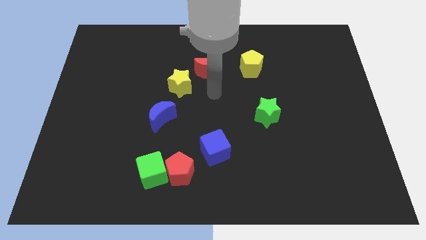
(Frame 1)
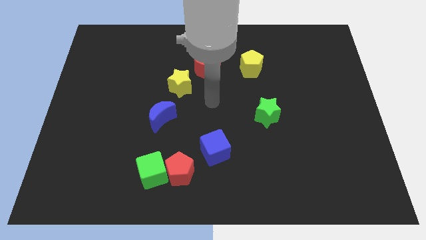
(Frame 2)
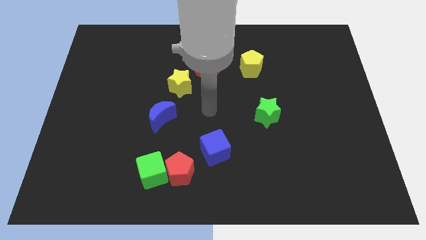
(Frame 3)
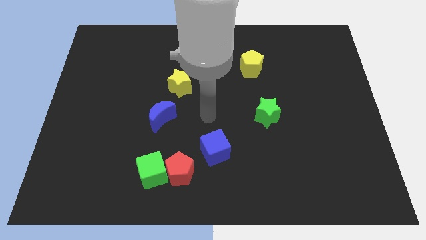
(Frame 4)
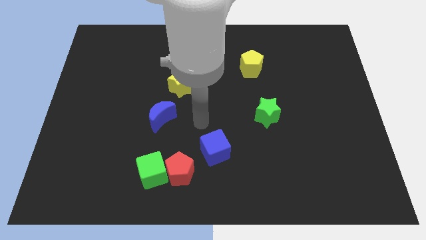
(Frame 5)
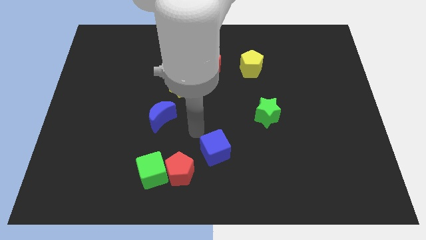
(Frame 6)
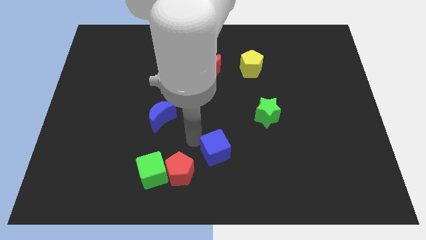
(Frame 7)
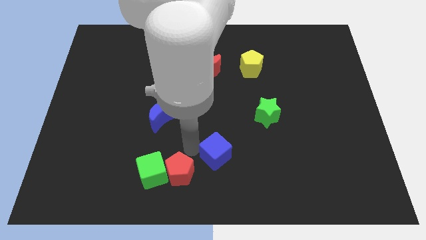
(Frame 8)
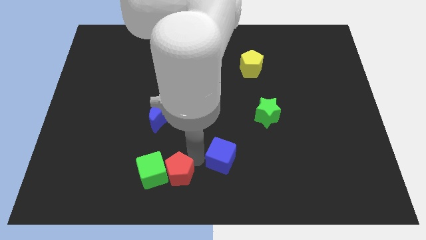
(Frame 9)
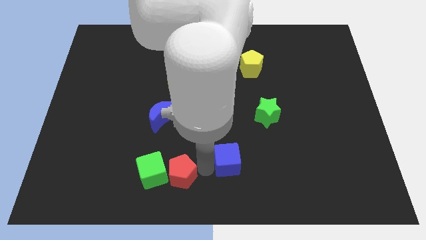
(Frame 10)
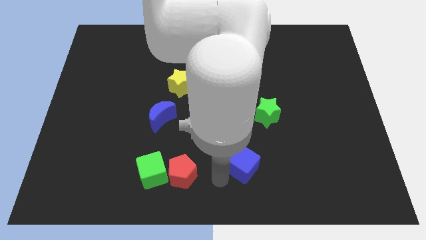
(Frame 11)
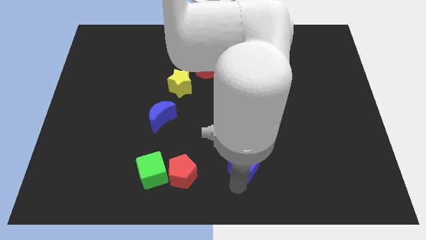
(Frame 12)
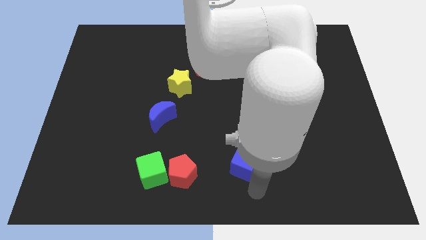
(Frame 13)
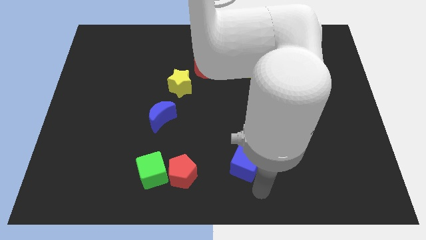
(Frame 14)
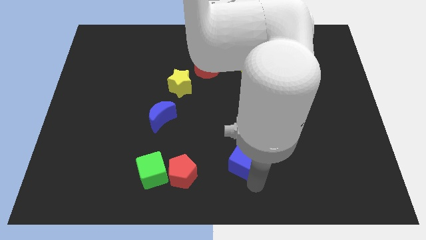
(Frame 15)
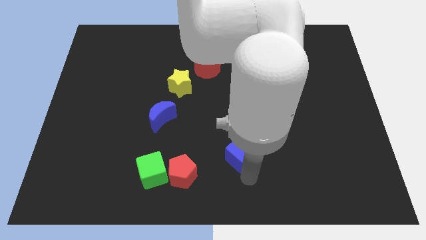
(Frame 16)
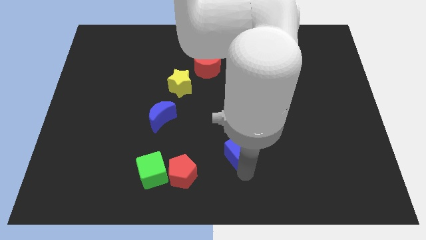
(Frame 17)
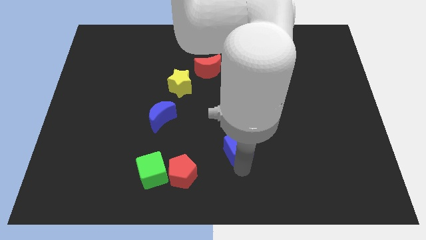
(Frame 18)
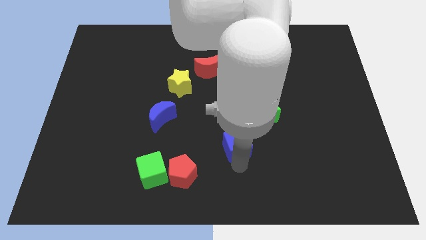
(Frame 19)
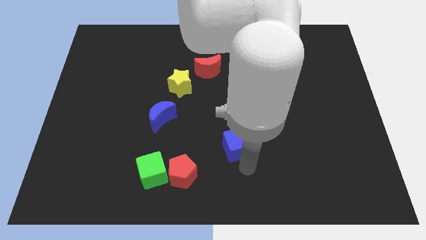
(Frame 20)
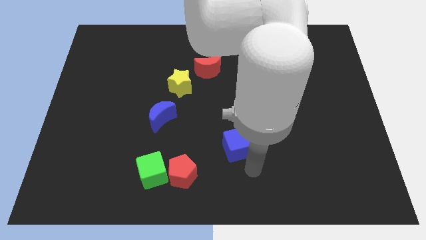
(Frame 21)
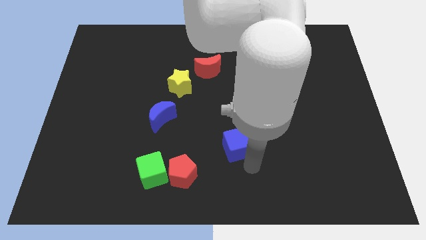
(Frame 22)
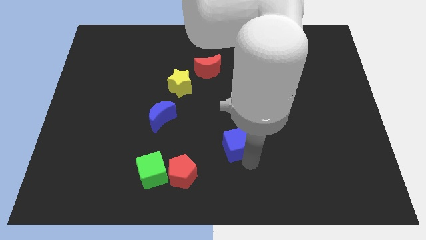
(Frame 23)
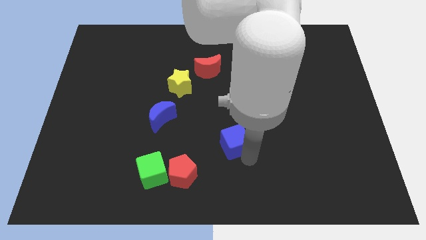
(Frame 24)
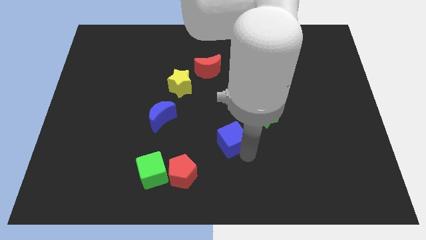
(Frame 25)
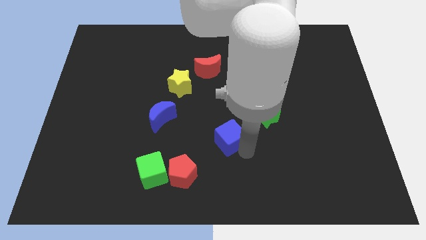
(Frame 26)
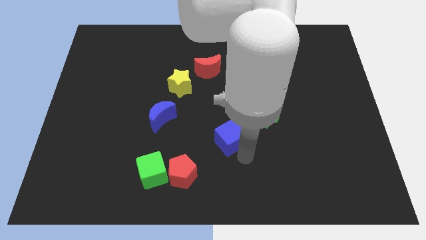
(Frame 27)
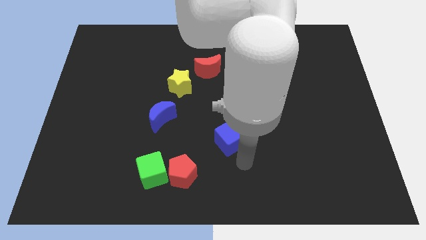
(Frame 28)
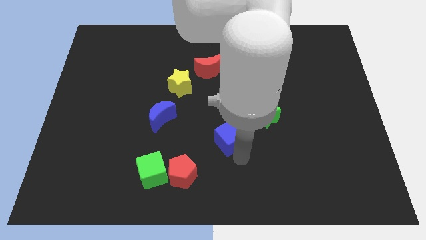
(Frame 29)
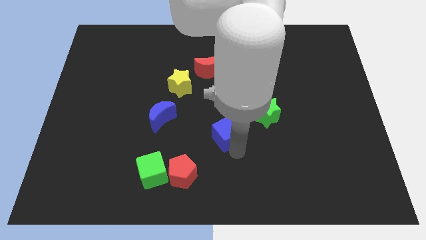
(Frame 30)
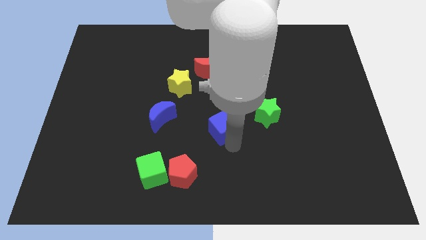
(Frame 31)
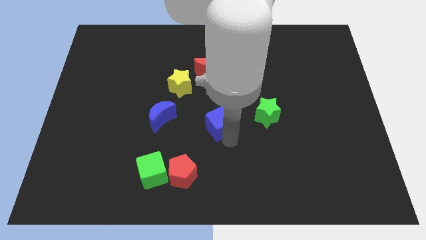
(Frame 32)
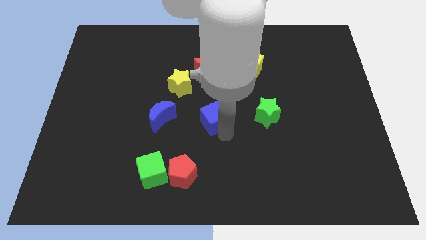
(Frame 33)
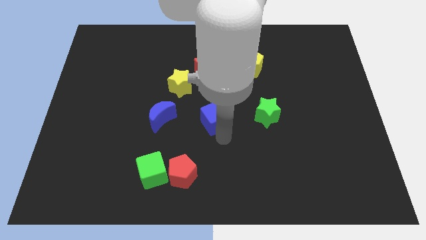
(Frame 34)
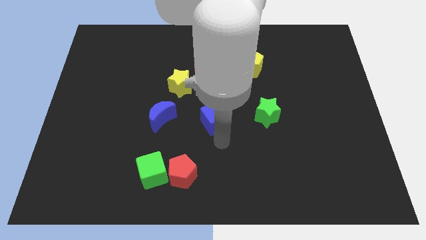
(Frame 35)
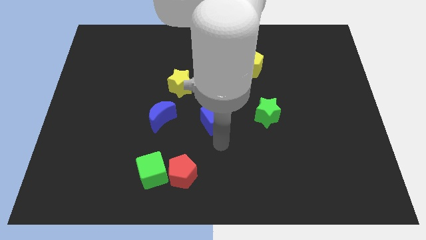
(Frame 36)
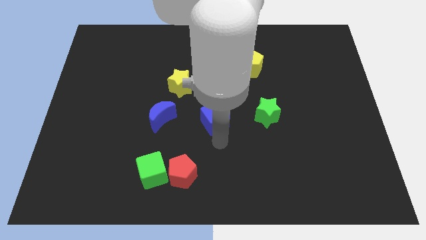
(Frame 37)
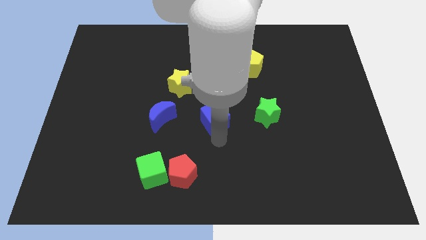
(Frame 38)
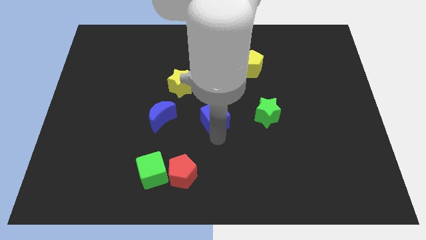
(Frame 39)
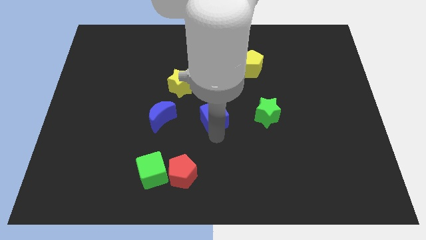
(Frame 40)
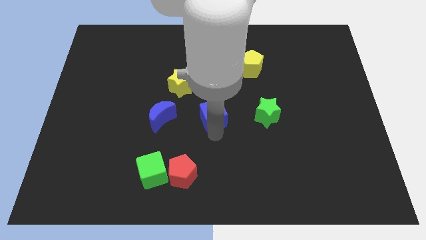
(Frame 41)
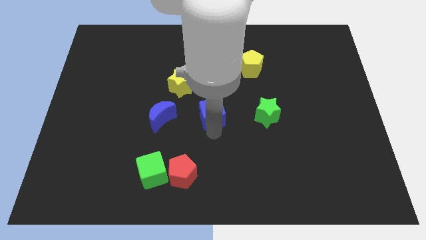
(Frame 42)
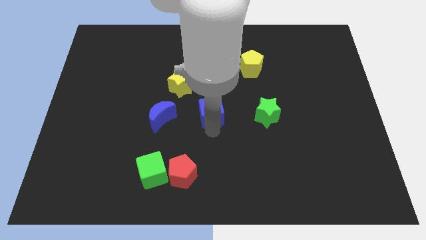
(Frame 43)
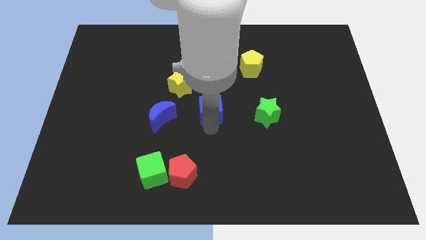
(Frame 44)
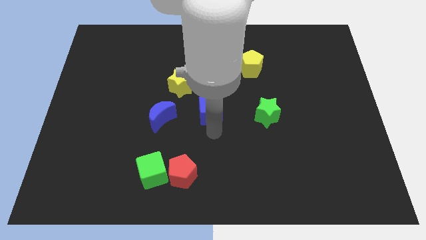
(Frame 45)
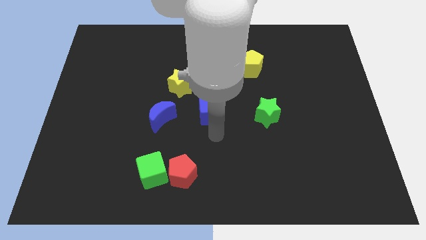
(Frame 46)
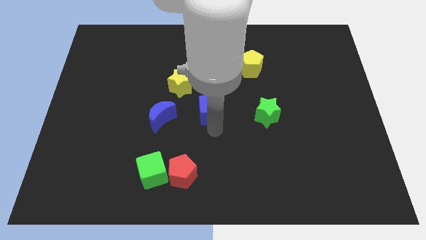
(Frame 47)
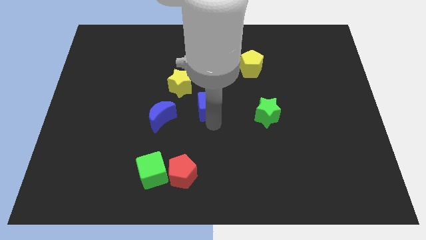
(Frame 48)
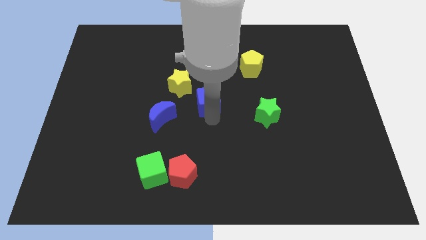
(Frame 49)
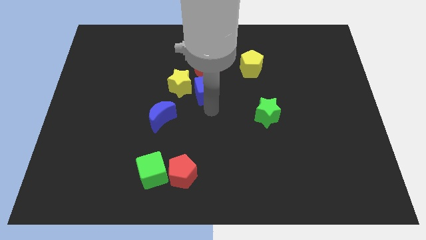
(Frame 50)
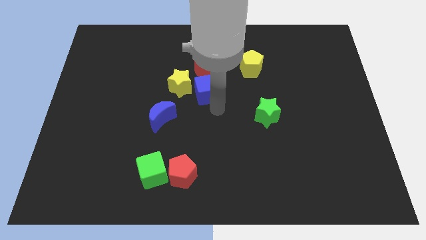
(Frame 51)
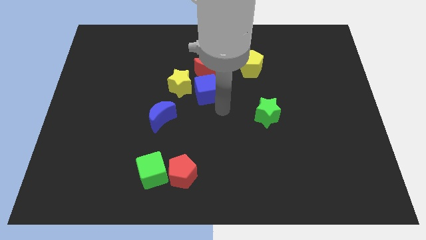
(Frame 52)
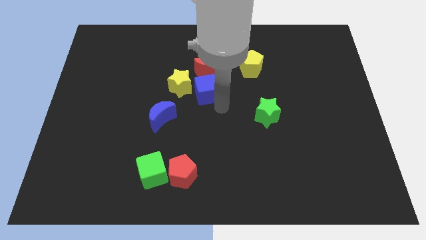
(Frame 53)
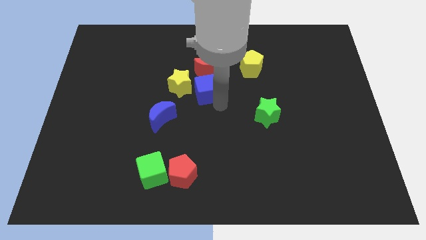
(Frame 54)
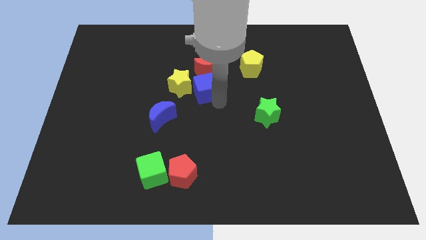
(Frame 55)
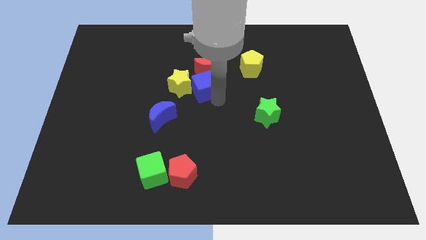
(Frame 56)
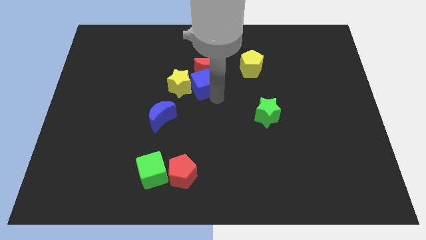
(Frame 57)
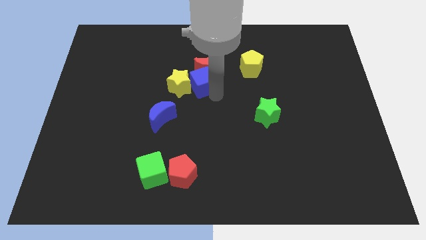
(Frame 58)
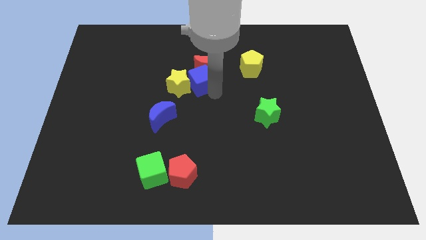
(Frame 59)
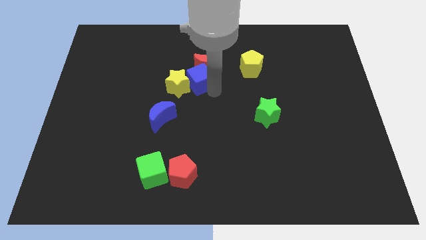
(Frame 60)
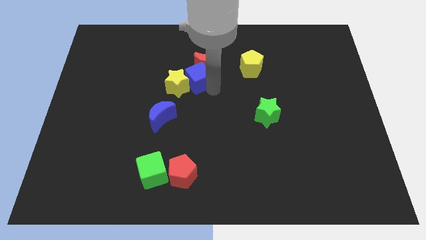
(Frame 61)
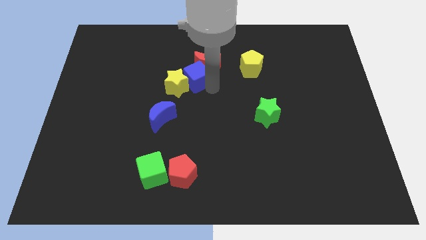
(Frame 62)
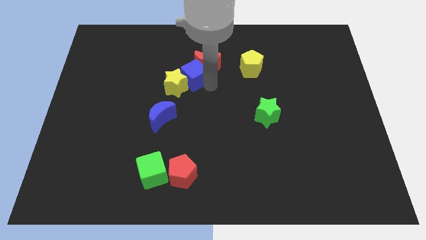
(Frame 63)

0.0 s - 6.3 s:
move the blue cube left of the red moon

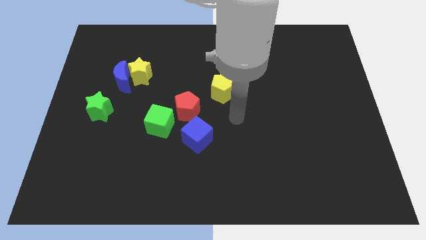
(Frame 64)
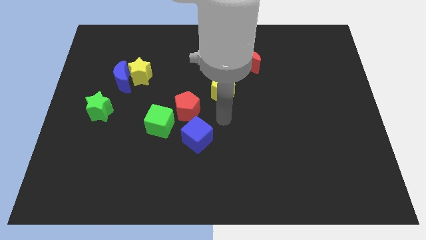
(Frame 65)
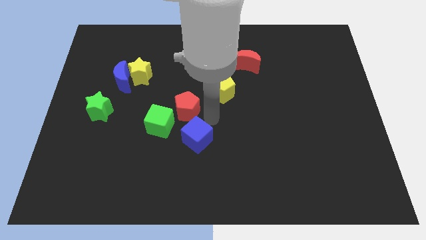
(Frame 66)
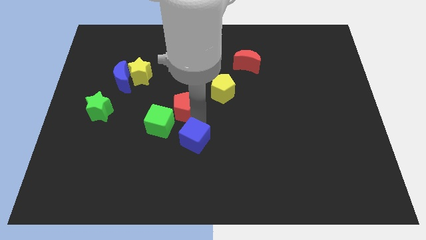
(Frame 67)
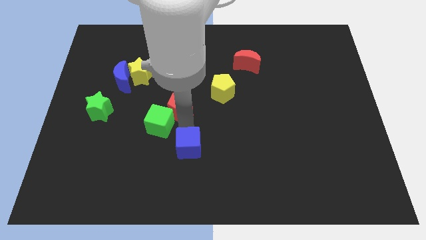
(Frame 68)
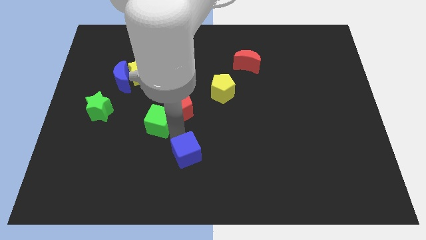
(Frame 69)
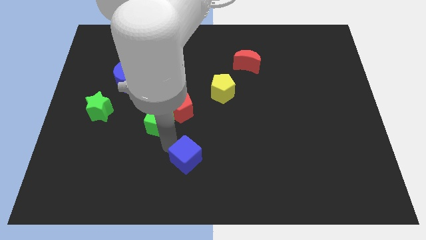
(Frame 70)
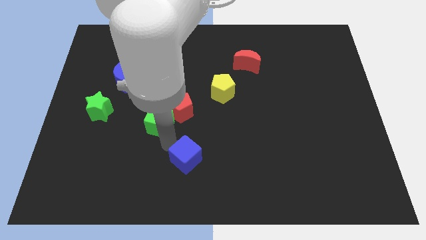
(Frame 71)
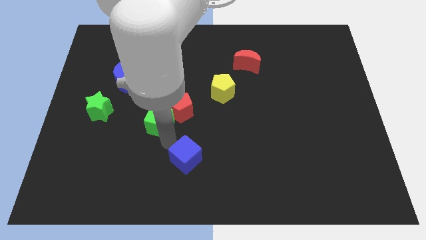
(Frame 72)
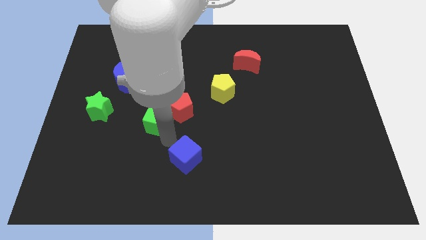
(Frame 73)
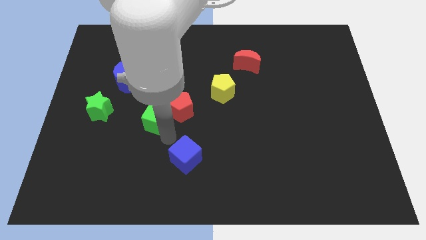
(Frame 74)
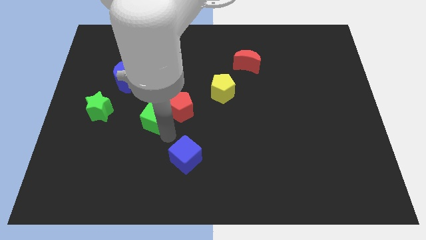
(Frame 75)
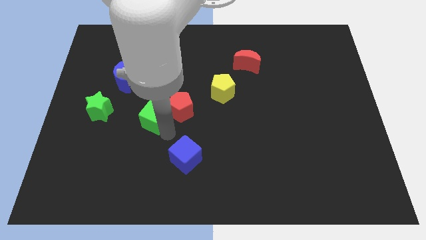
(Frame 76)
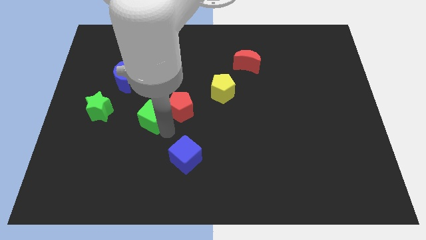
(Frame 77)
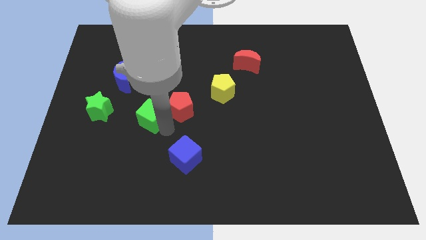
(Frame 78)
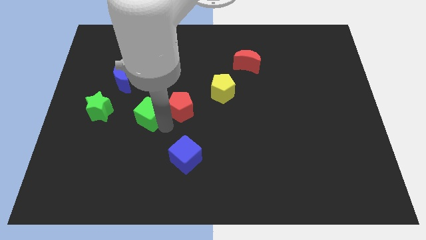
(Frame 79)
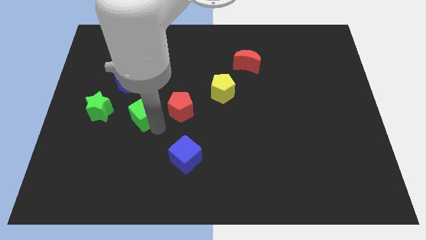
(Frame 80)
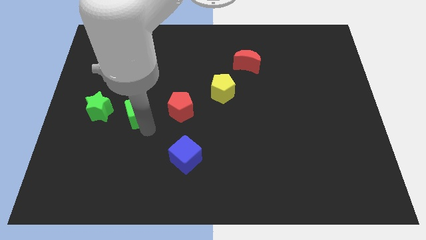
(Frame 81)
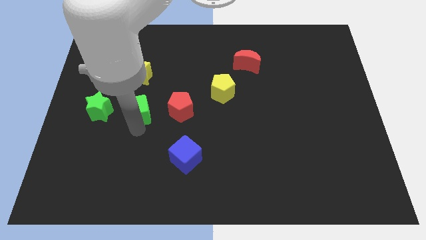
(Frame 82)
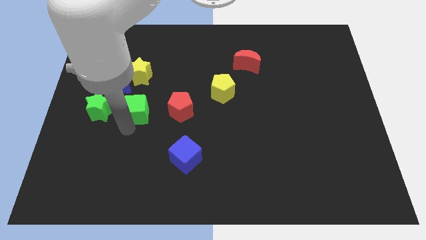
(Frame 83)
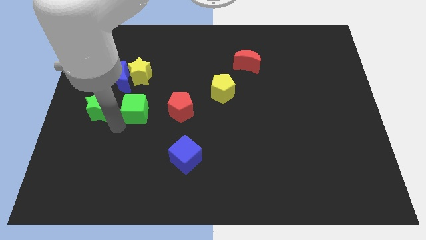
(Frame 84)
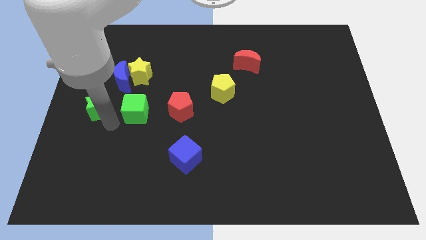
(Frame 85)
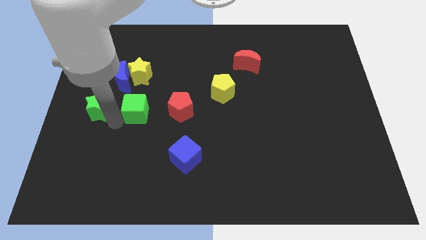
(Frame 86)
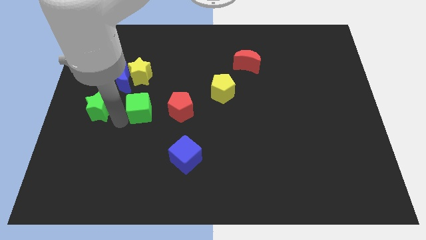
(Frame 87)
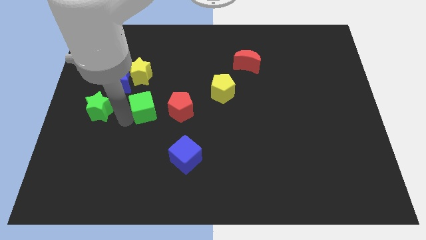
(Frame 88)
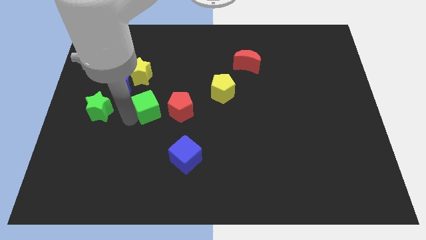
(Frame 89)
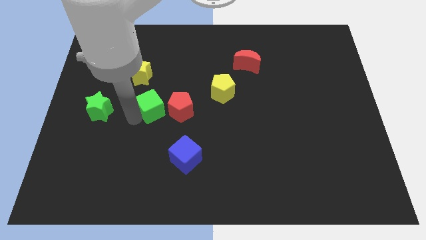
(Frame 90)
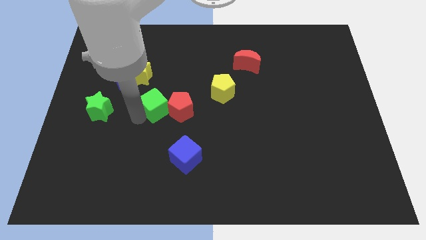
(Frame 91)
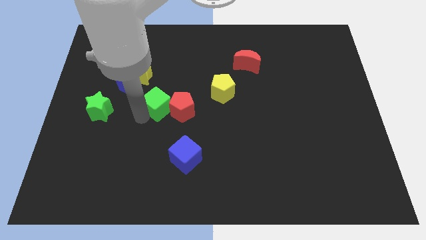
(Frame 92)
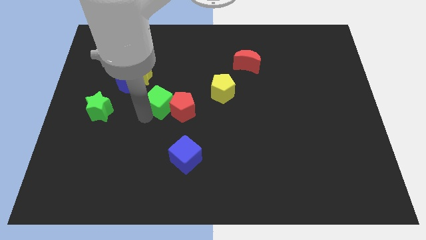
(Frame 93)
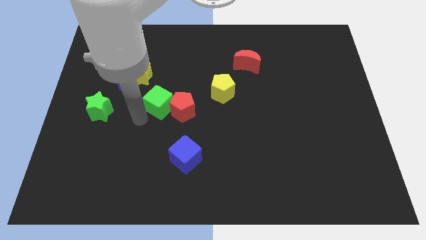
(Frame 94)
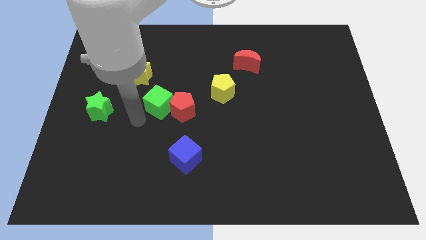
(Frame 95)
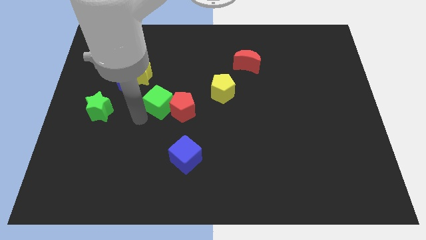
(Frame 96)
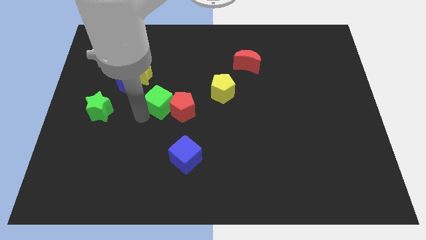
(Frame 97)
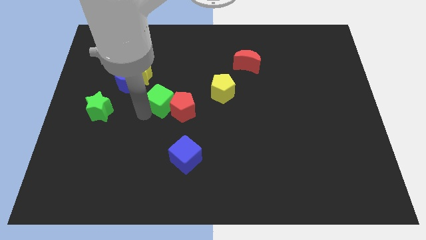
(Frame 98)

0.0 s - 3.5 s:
slide the green cube left of the yellow pentagon
